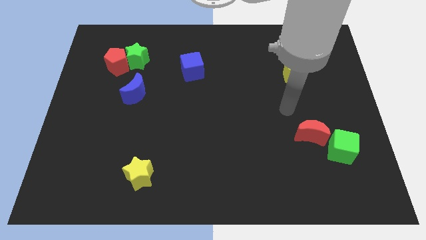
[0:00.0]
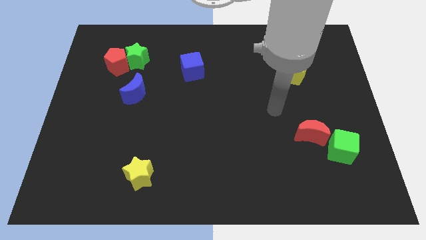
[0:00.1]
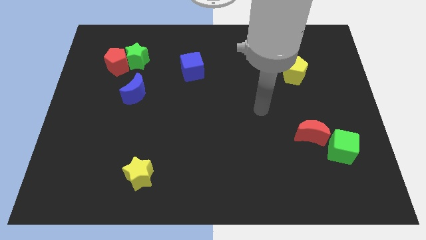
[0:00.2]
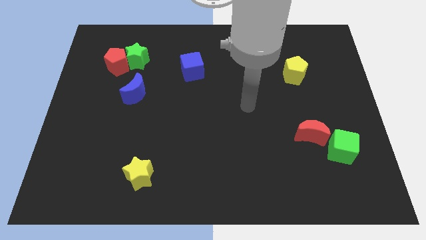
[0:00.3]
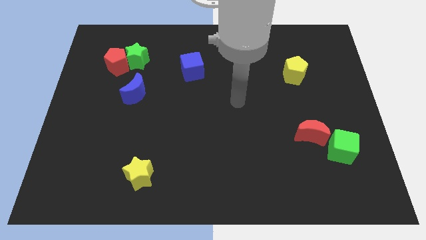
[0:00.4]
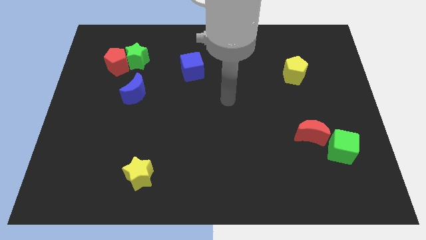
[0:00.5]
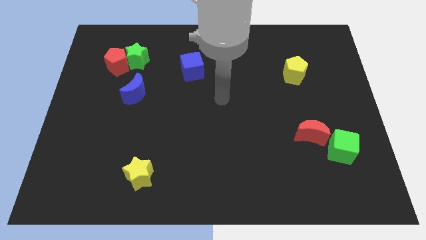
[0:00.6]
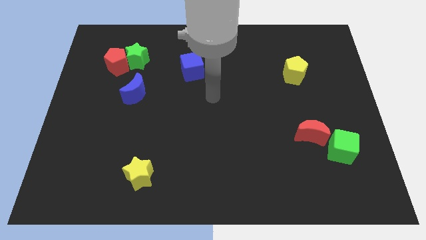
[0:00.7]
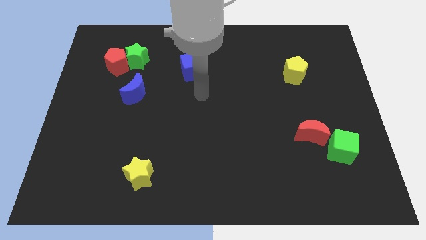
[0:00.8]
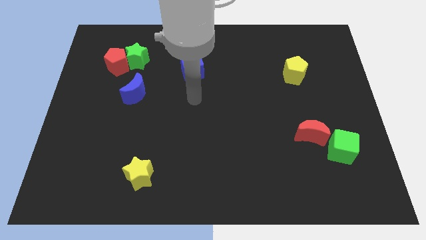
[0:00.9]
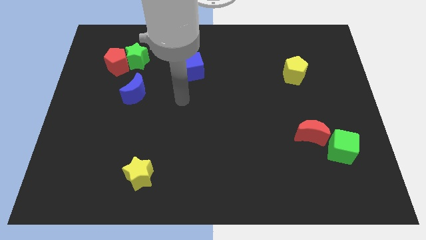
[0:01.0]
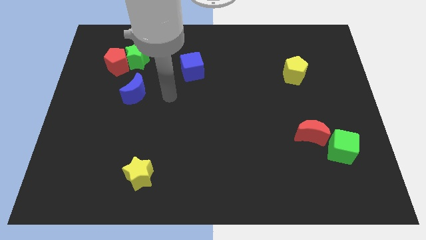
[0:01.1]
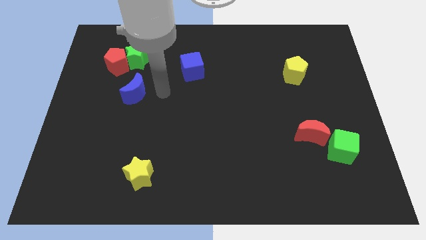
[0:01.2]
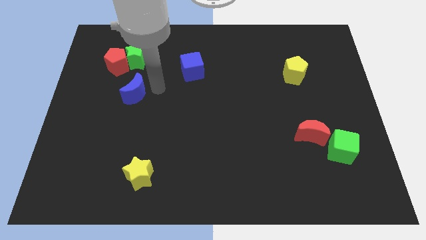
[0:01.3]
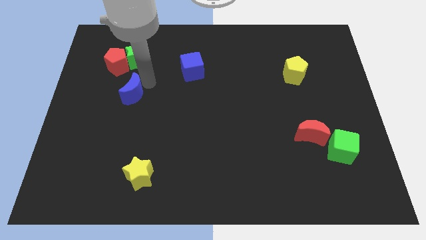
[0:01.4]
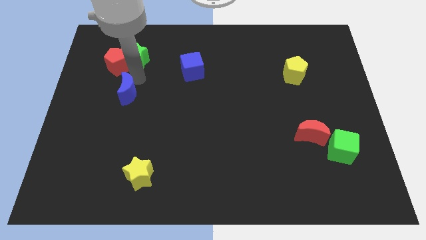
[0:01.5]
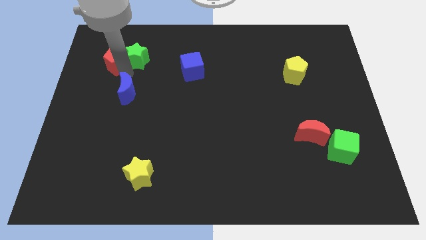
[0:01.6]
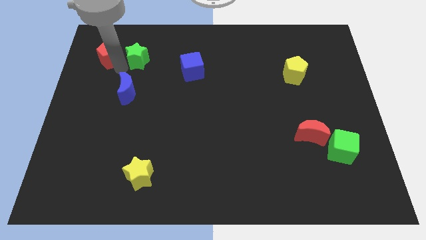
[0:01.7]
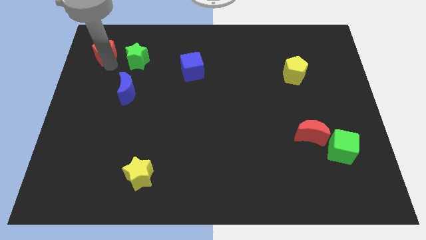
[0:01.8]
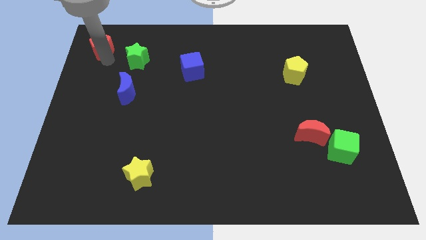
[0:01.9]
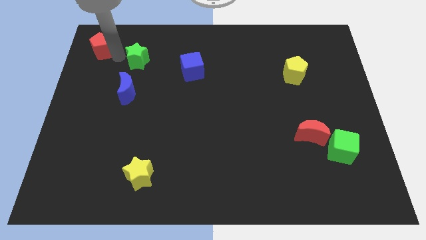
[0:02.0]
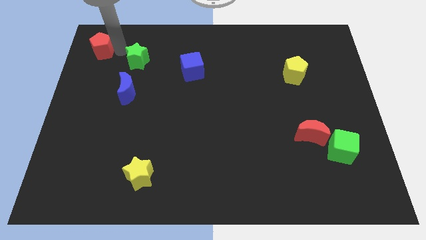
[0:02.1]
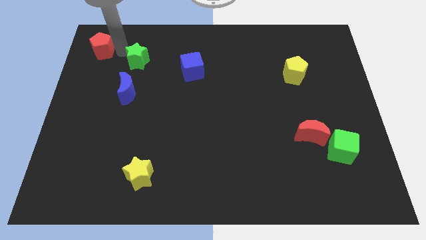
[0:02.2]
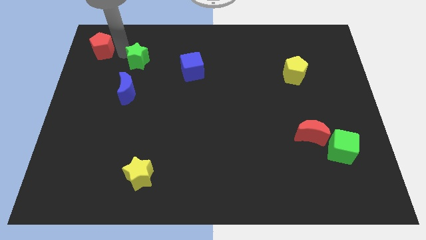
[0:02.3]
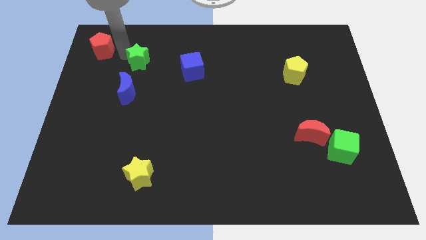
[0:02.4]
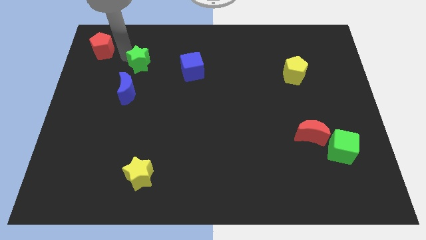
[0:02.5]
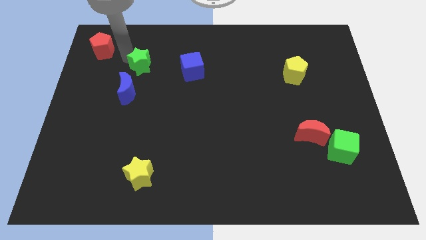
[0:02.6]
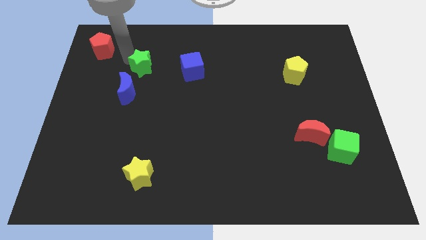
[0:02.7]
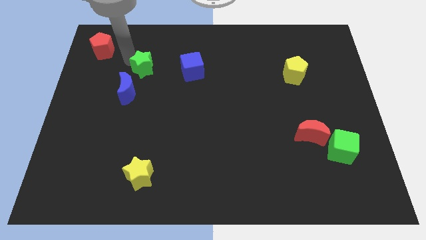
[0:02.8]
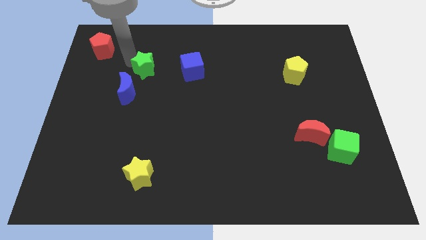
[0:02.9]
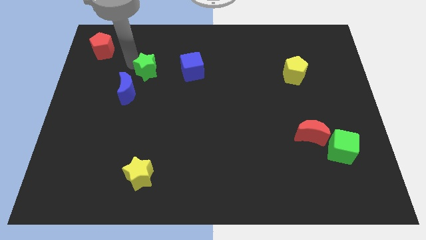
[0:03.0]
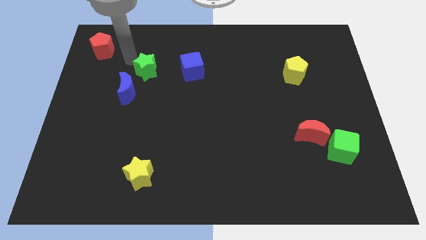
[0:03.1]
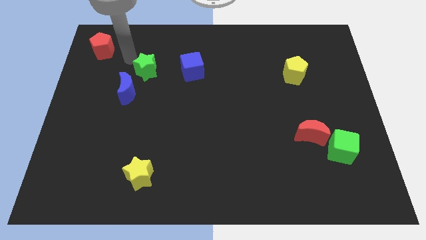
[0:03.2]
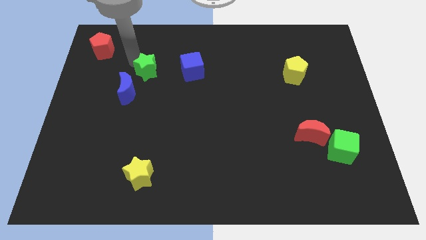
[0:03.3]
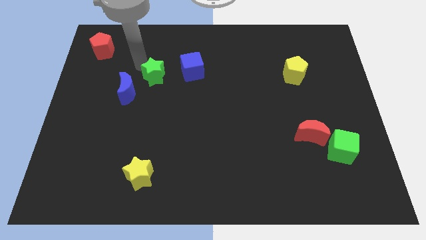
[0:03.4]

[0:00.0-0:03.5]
push the green star diagonally down and to the right slightly

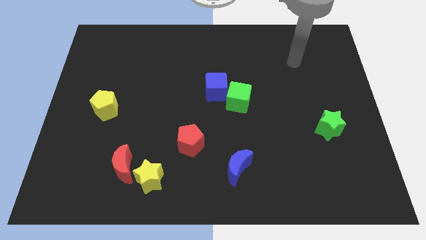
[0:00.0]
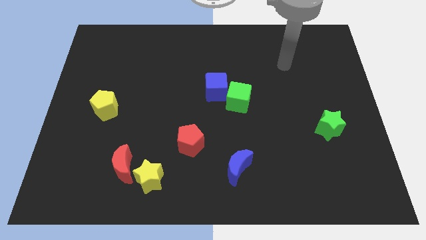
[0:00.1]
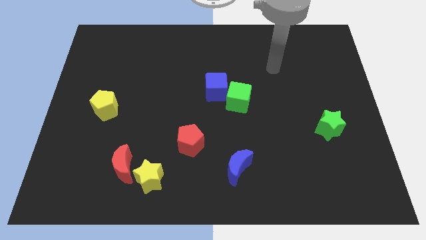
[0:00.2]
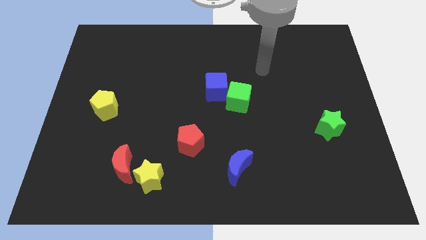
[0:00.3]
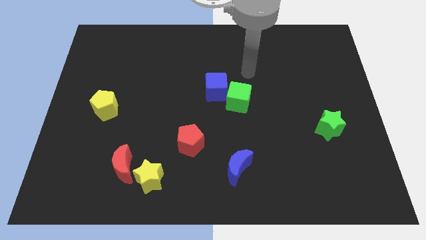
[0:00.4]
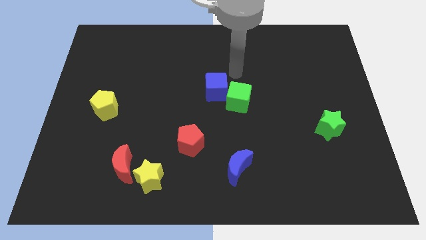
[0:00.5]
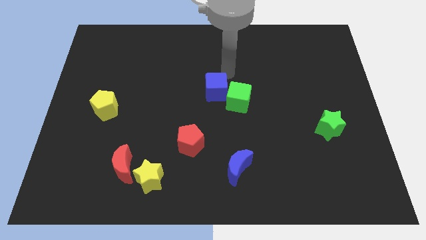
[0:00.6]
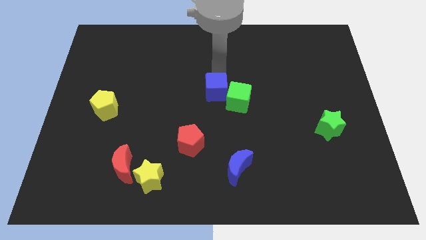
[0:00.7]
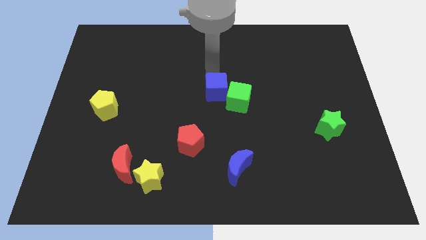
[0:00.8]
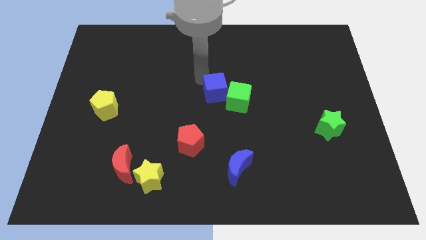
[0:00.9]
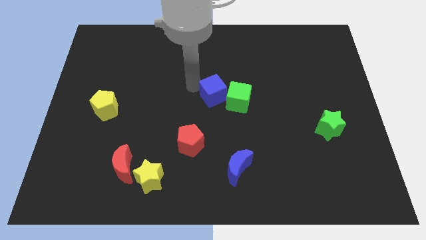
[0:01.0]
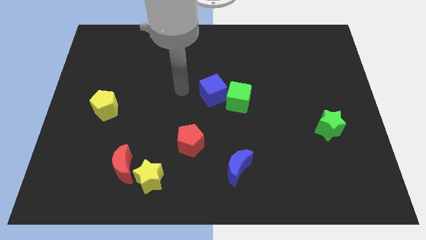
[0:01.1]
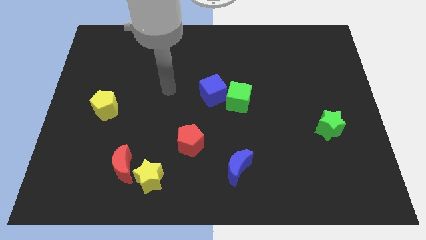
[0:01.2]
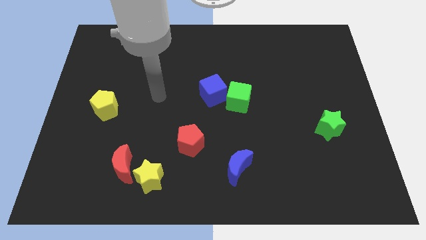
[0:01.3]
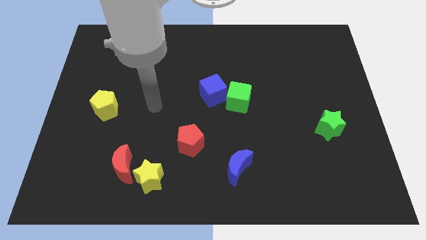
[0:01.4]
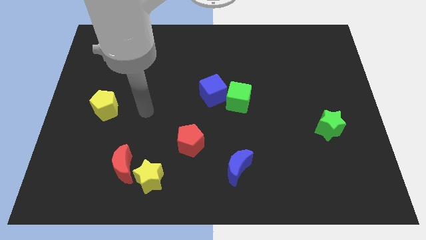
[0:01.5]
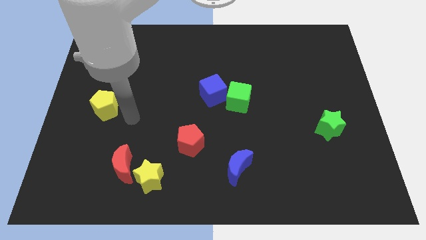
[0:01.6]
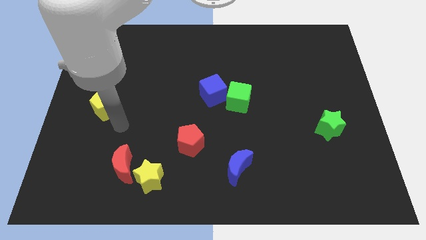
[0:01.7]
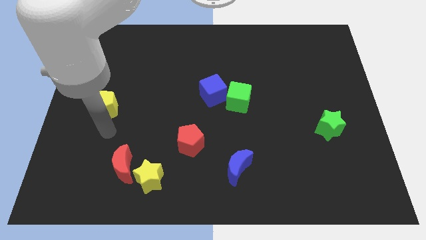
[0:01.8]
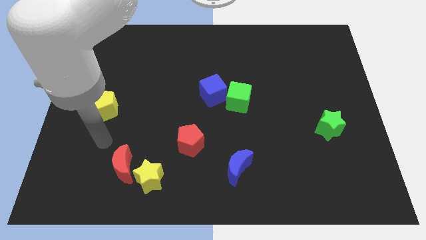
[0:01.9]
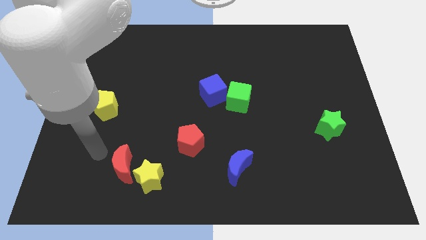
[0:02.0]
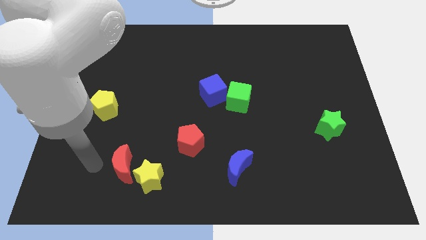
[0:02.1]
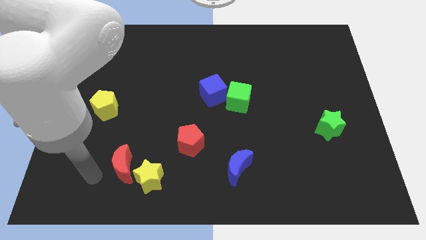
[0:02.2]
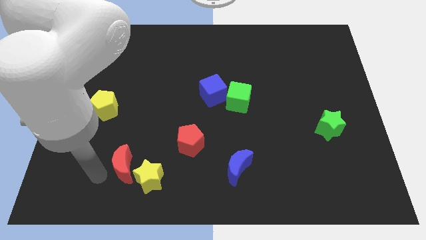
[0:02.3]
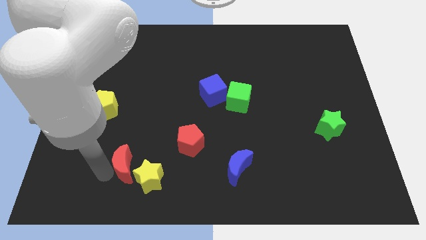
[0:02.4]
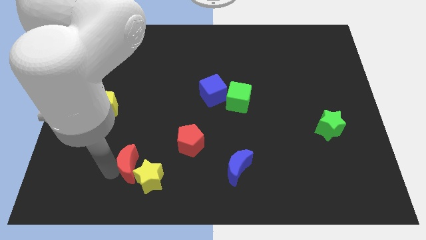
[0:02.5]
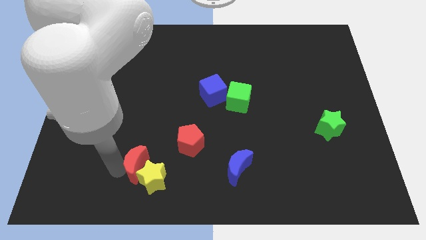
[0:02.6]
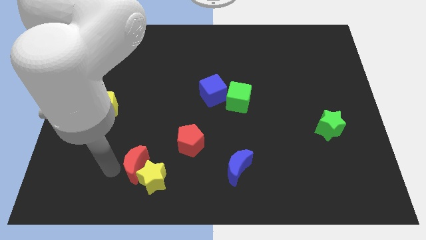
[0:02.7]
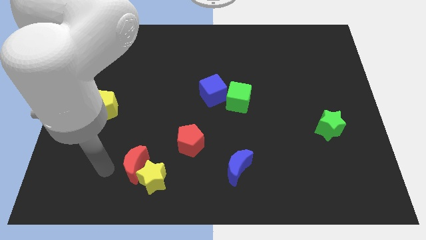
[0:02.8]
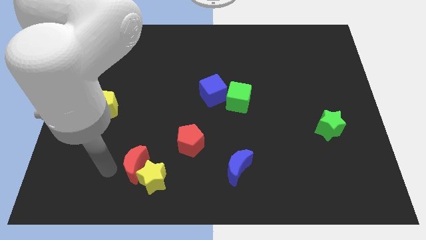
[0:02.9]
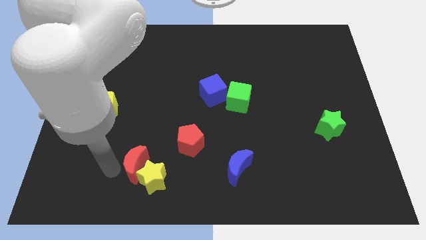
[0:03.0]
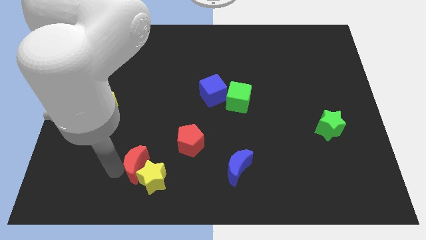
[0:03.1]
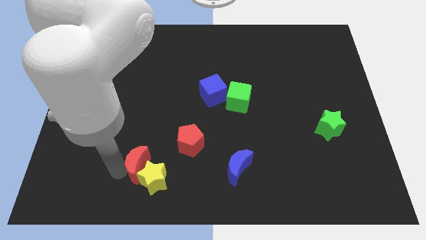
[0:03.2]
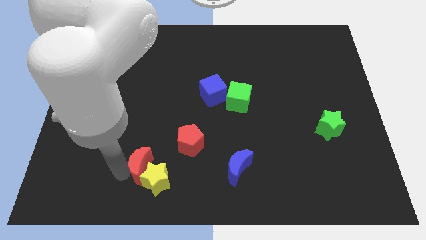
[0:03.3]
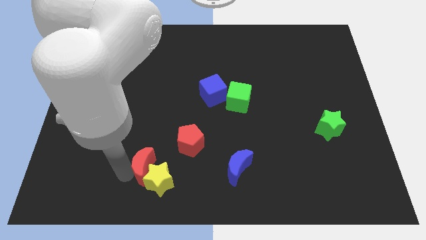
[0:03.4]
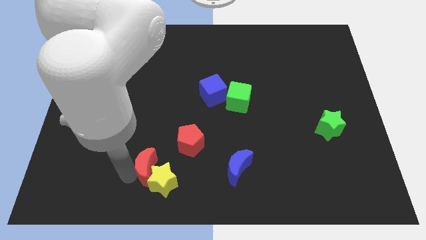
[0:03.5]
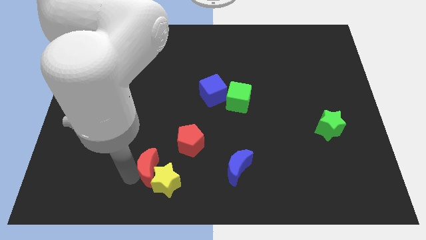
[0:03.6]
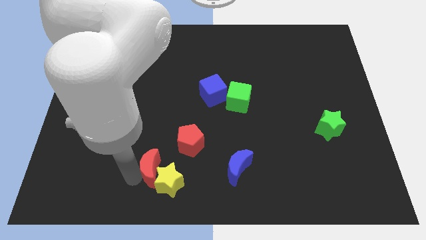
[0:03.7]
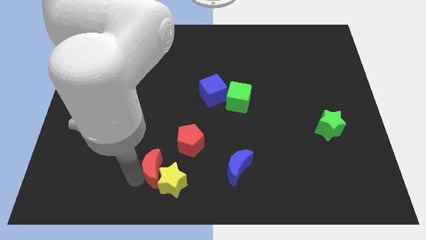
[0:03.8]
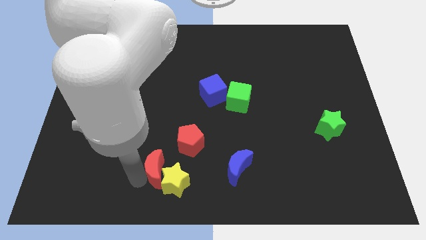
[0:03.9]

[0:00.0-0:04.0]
push the red moon a little bit to the right

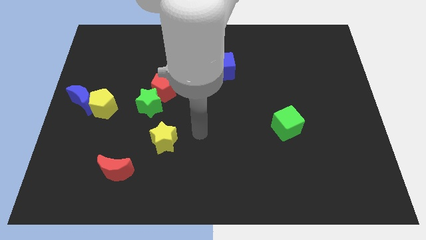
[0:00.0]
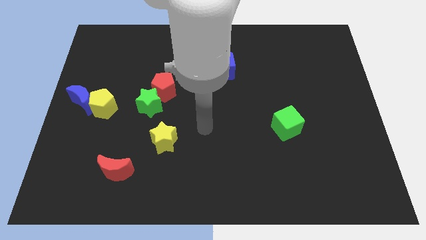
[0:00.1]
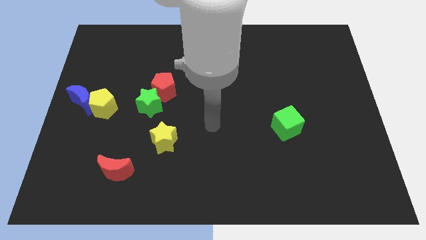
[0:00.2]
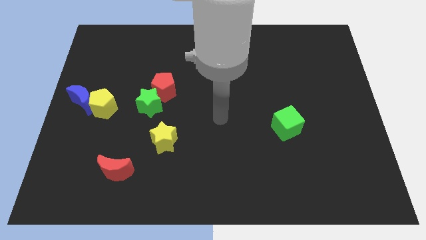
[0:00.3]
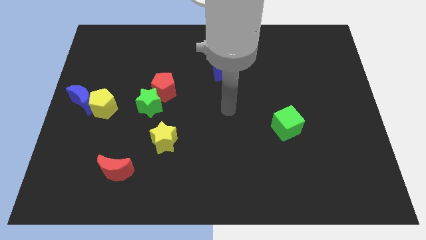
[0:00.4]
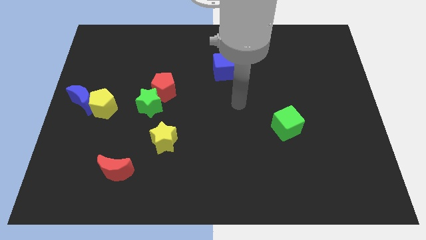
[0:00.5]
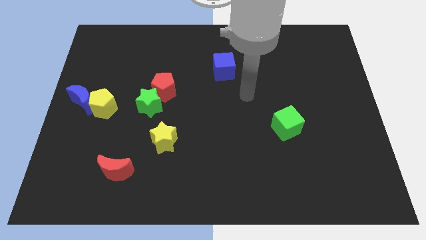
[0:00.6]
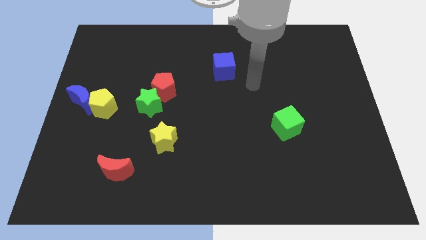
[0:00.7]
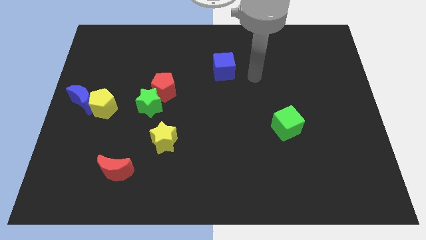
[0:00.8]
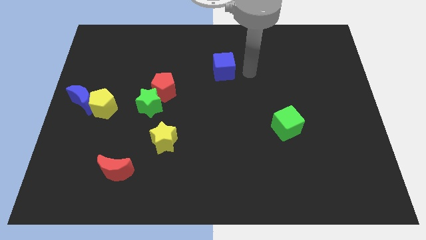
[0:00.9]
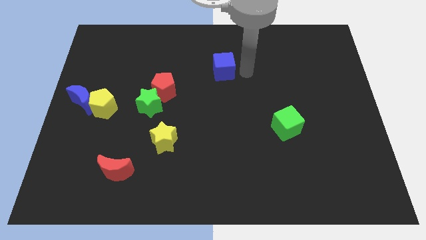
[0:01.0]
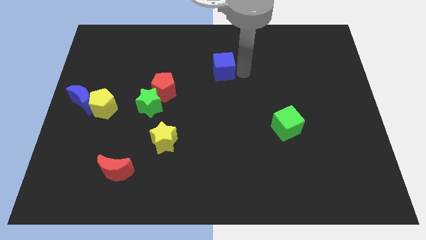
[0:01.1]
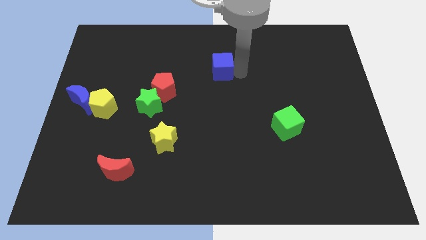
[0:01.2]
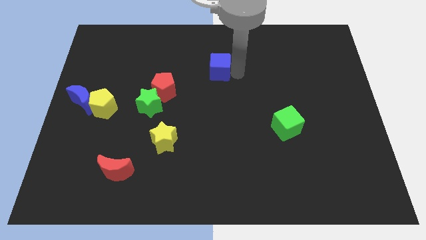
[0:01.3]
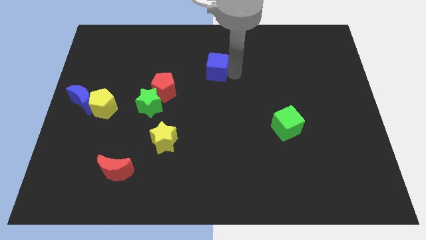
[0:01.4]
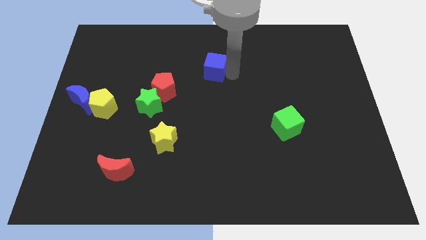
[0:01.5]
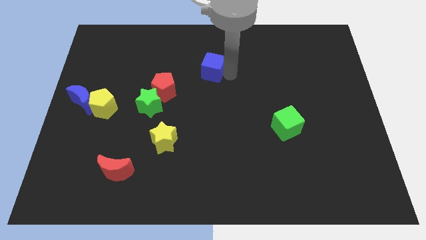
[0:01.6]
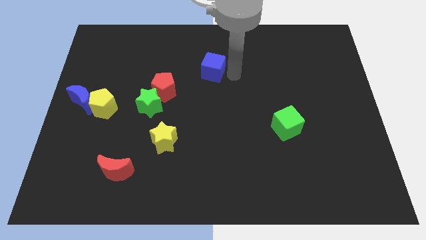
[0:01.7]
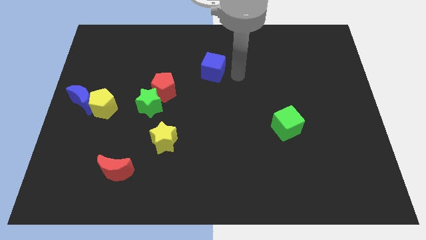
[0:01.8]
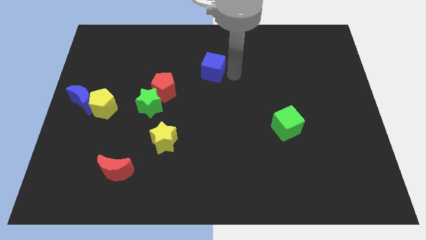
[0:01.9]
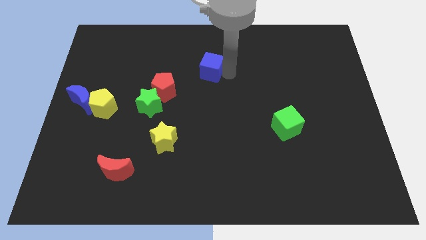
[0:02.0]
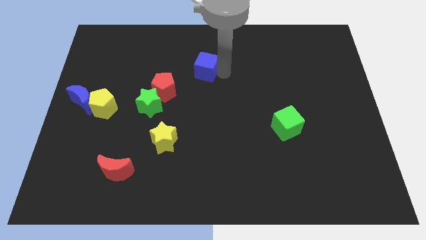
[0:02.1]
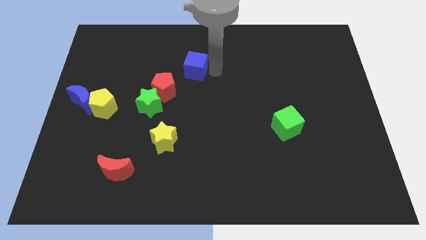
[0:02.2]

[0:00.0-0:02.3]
slightly slide the blue cube to the left
